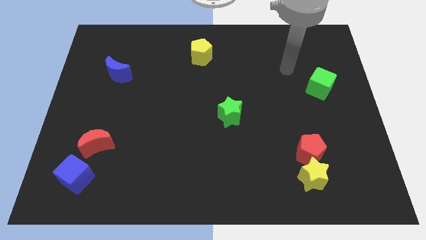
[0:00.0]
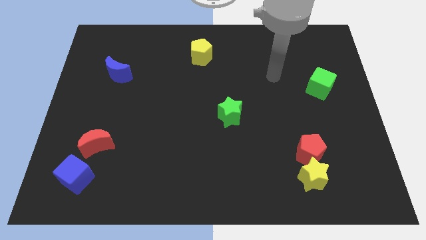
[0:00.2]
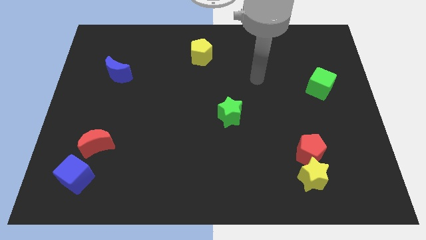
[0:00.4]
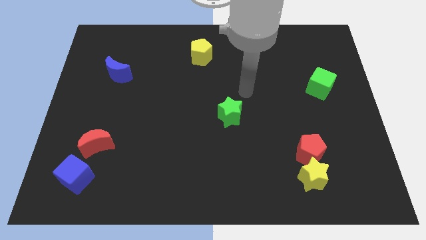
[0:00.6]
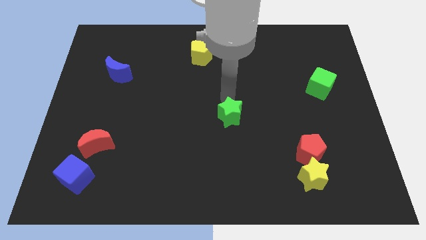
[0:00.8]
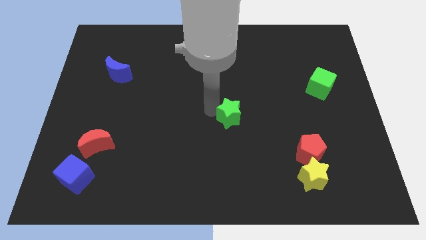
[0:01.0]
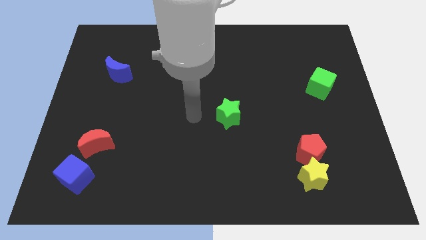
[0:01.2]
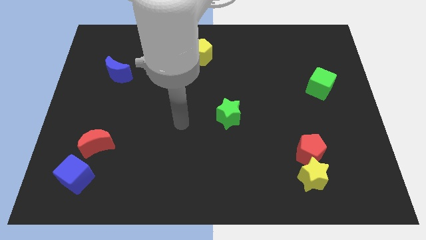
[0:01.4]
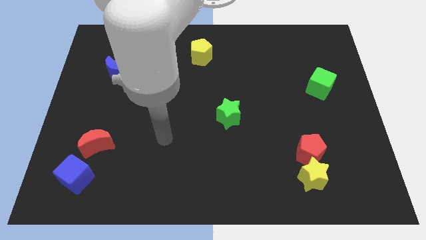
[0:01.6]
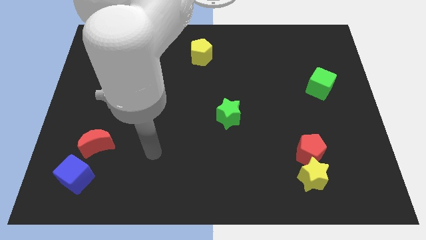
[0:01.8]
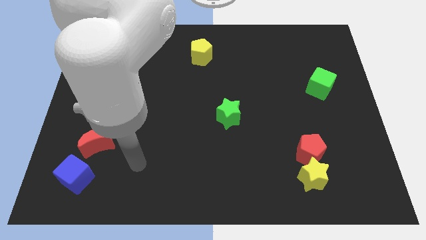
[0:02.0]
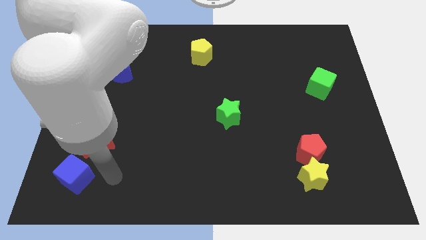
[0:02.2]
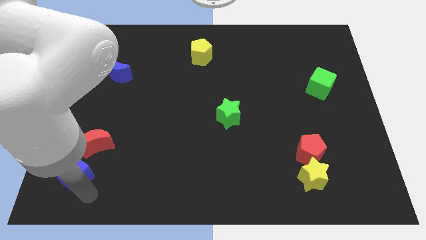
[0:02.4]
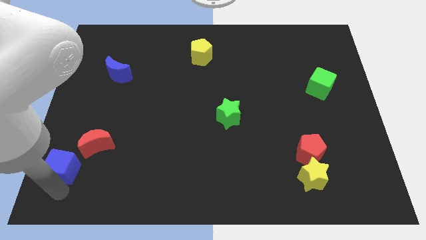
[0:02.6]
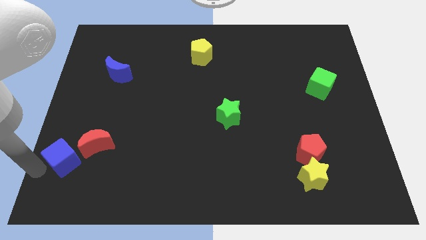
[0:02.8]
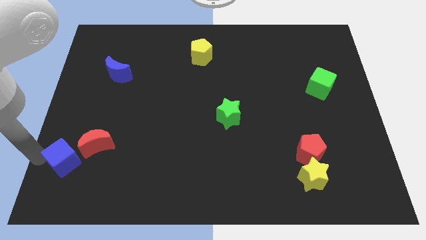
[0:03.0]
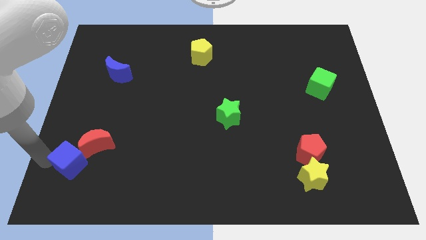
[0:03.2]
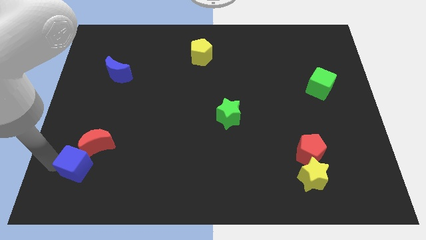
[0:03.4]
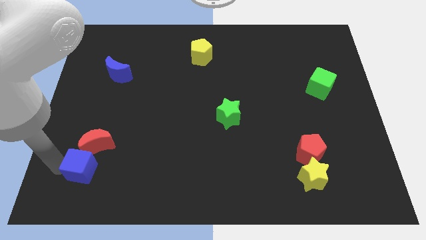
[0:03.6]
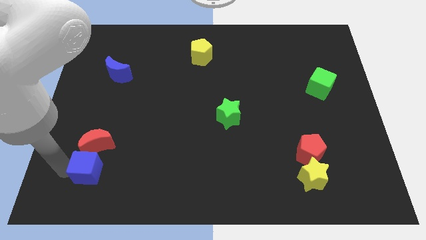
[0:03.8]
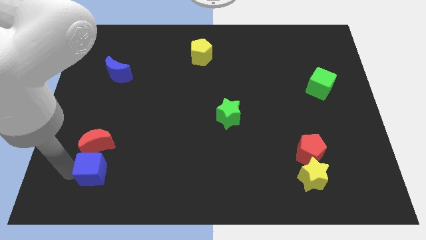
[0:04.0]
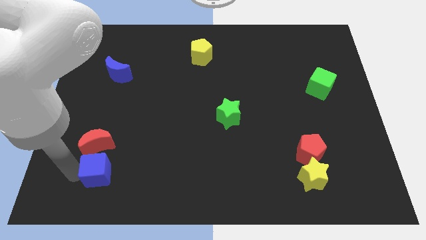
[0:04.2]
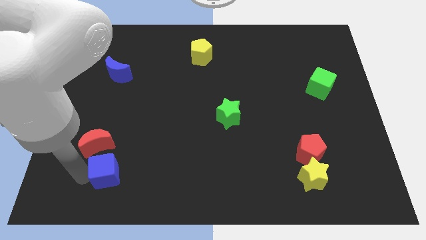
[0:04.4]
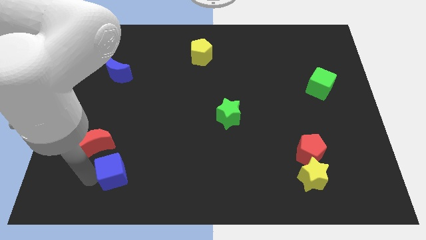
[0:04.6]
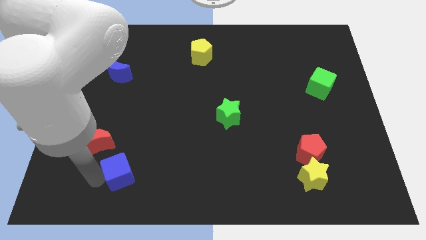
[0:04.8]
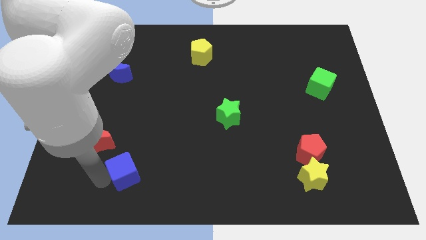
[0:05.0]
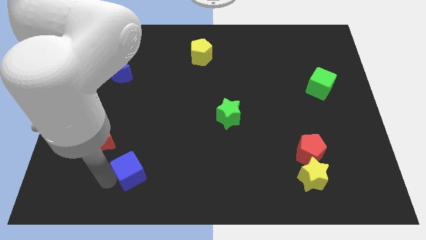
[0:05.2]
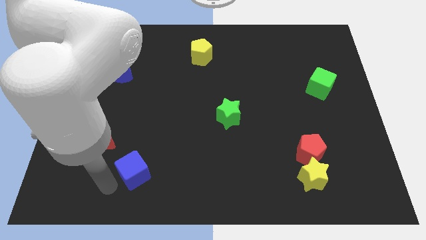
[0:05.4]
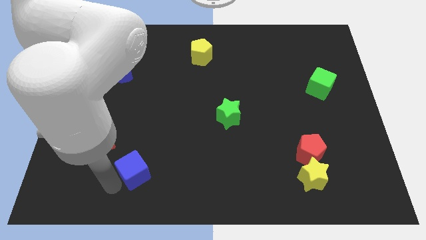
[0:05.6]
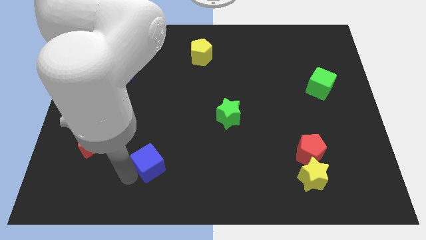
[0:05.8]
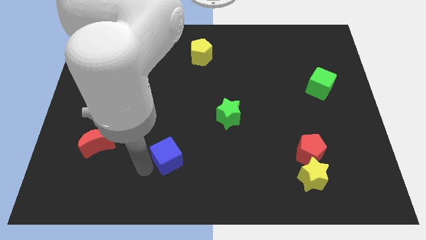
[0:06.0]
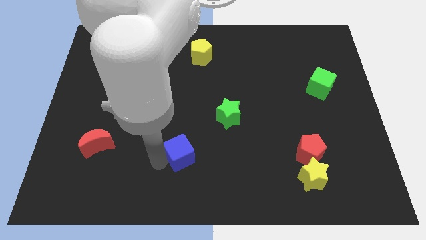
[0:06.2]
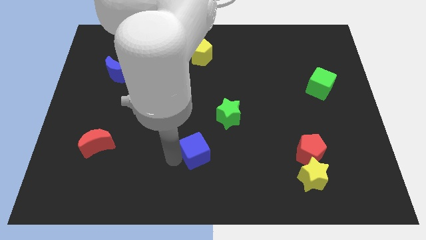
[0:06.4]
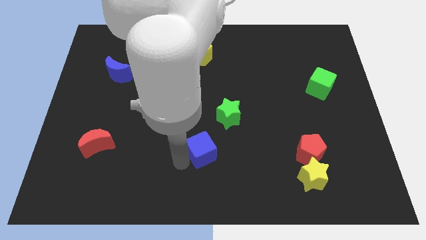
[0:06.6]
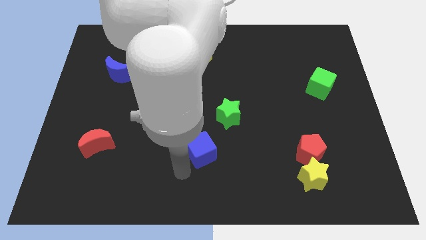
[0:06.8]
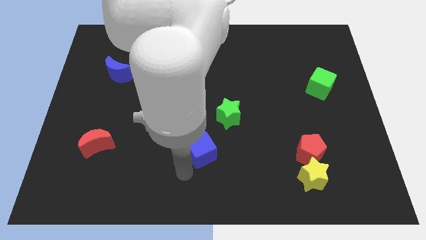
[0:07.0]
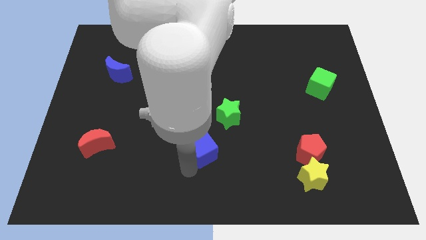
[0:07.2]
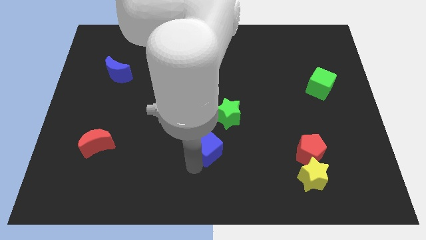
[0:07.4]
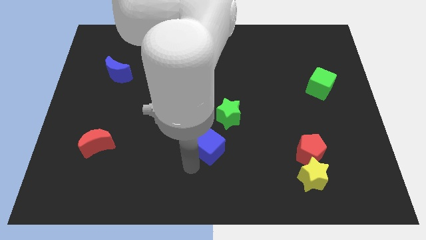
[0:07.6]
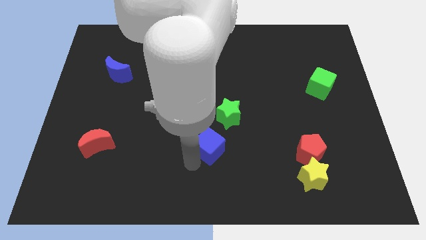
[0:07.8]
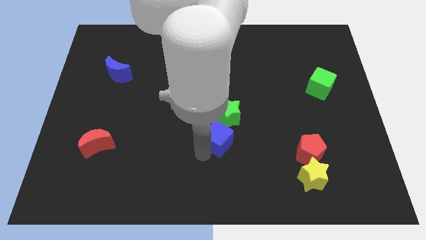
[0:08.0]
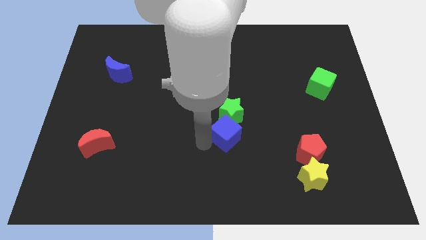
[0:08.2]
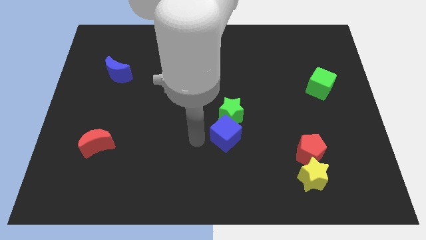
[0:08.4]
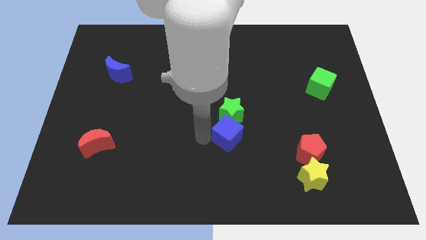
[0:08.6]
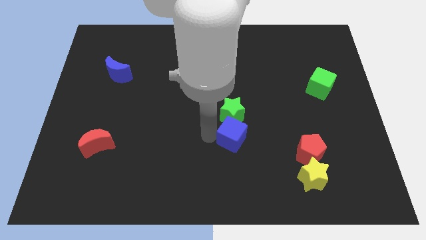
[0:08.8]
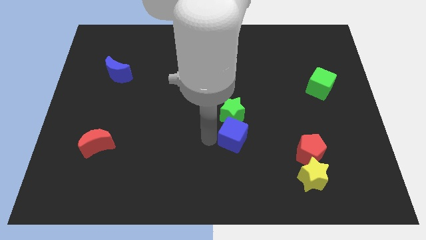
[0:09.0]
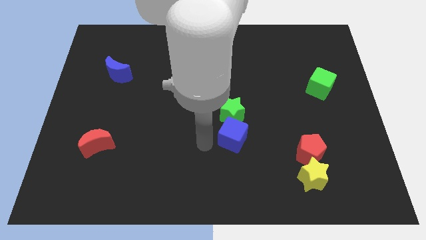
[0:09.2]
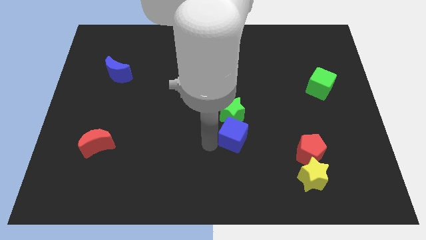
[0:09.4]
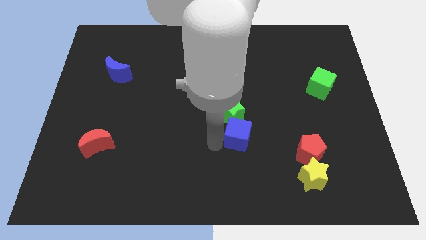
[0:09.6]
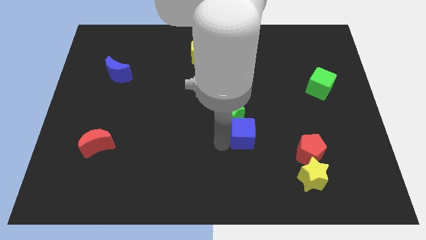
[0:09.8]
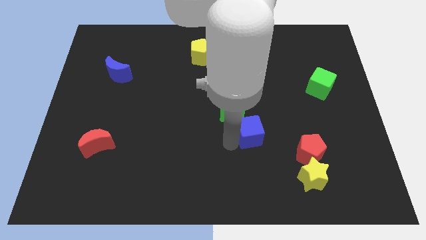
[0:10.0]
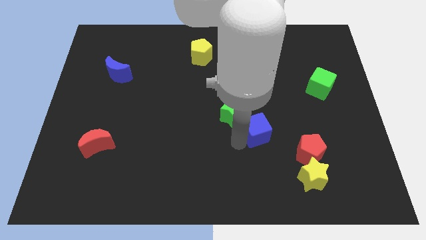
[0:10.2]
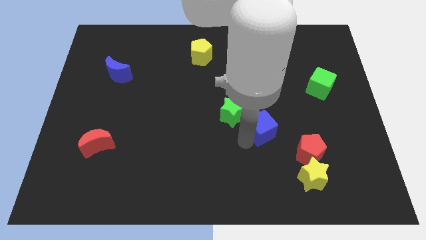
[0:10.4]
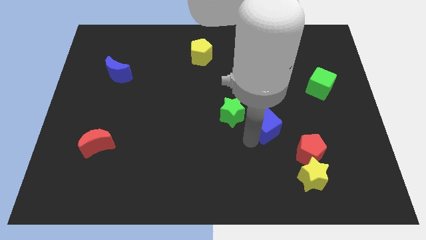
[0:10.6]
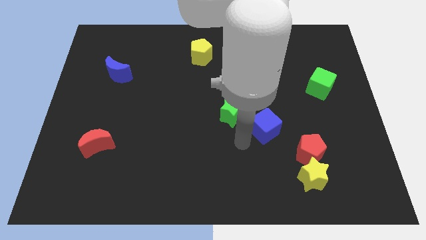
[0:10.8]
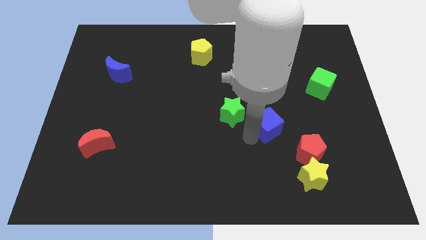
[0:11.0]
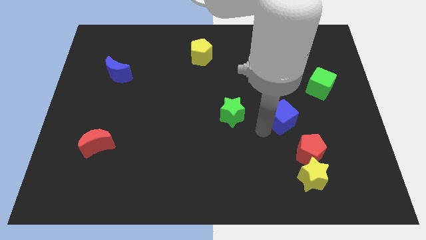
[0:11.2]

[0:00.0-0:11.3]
move the blue cube above the red pentagon

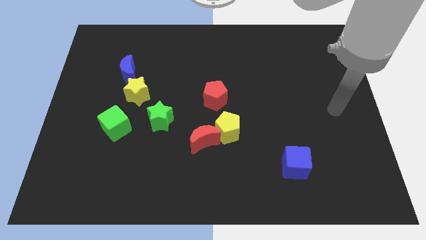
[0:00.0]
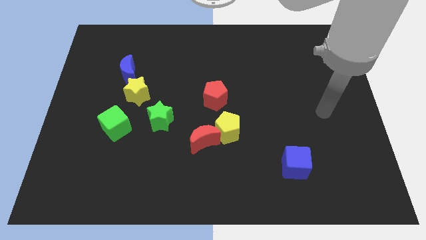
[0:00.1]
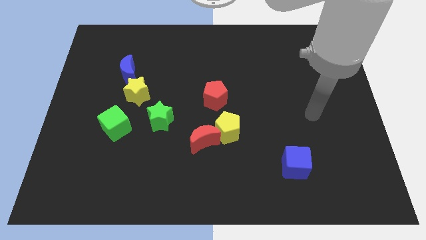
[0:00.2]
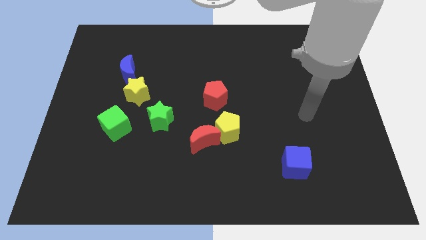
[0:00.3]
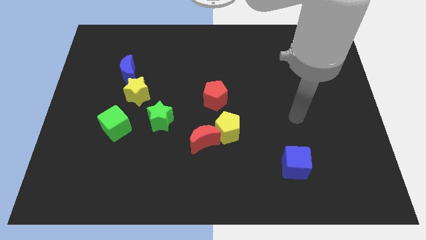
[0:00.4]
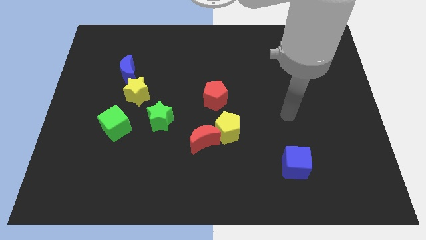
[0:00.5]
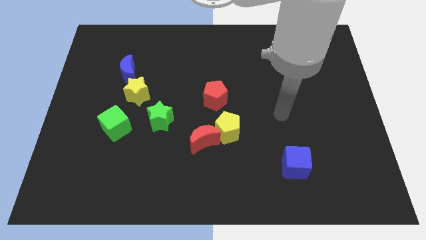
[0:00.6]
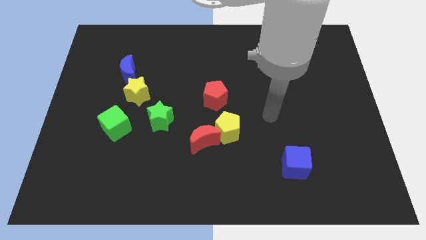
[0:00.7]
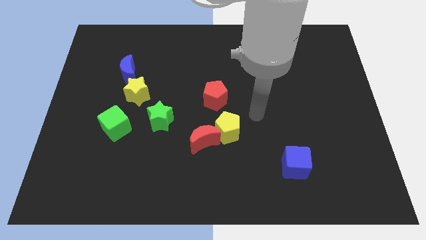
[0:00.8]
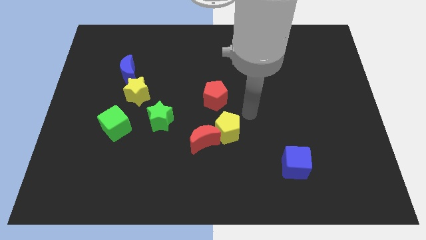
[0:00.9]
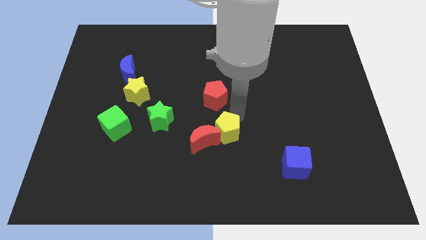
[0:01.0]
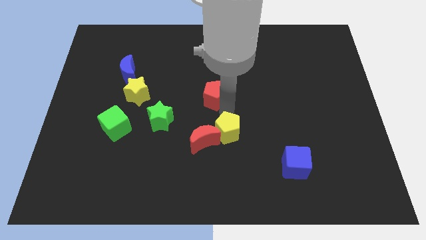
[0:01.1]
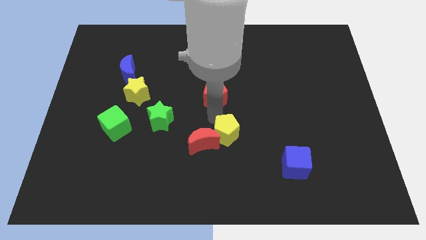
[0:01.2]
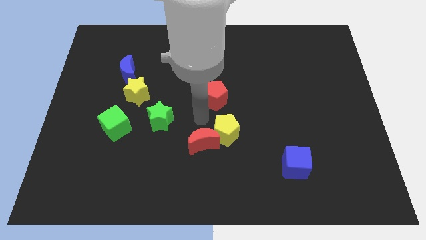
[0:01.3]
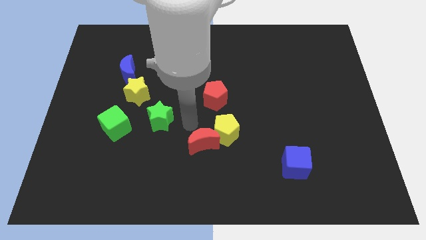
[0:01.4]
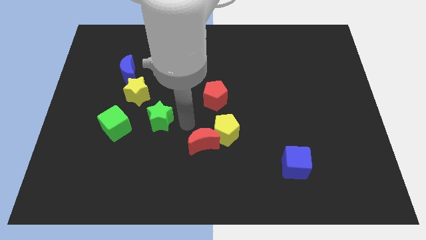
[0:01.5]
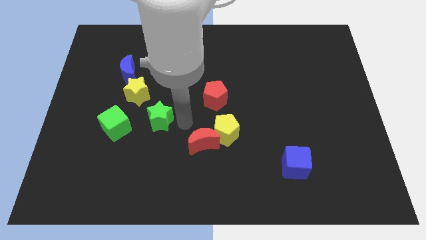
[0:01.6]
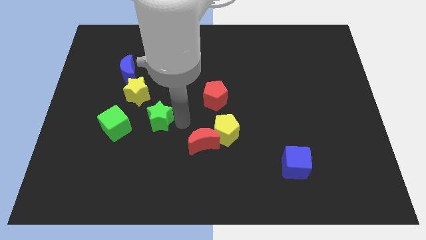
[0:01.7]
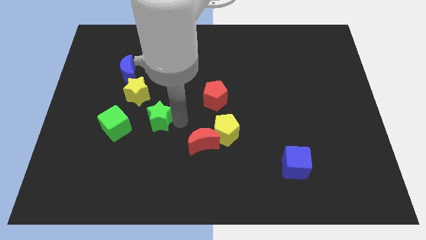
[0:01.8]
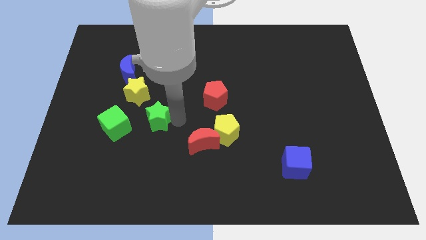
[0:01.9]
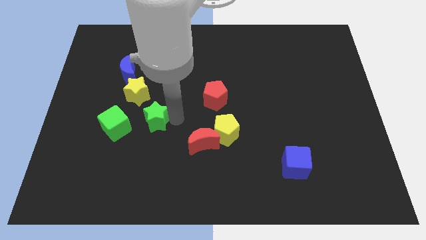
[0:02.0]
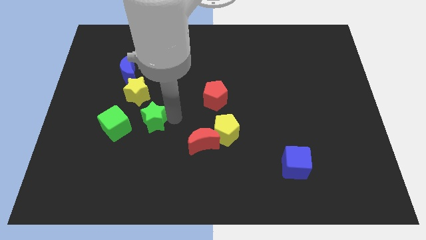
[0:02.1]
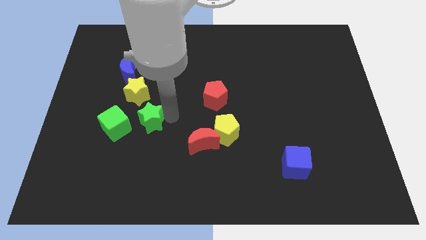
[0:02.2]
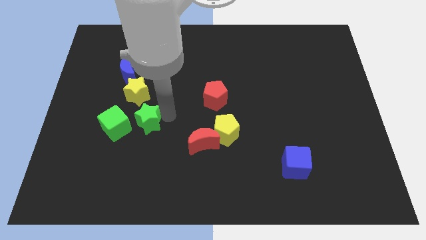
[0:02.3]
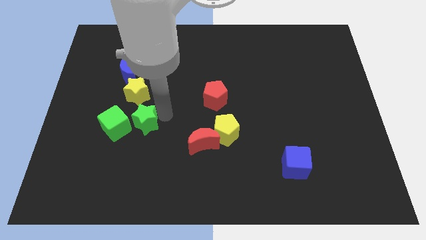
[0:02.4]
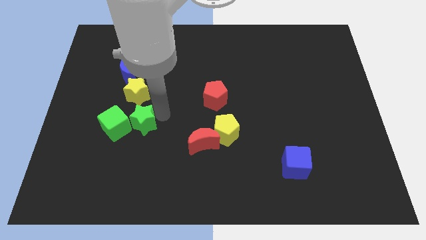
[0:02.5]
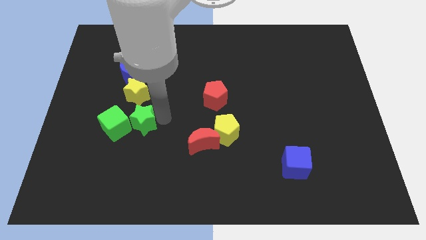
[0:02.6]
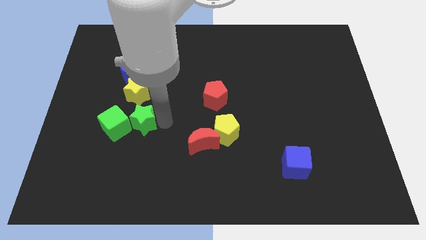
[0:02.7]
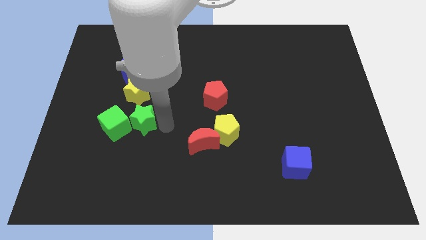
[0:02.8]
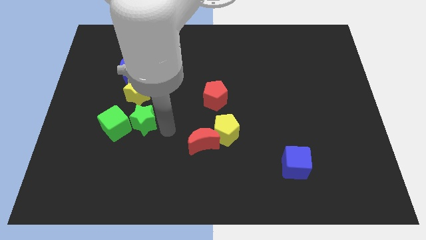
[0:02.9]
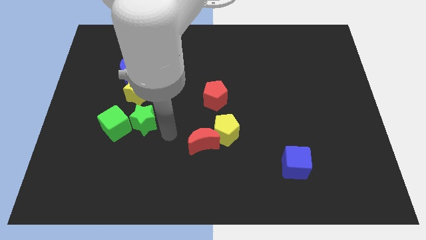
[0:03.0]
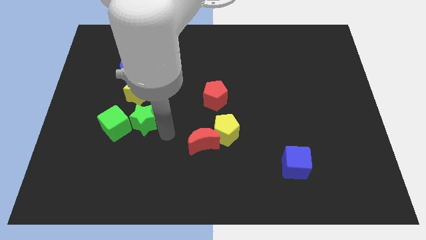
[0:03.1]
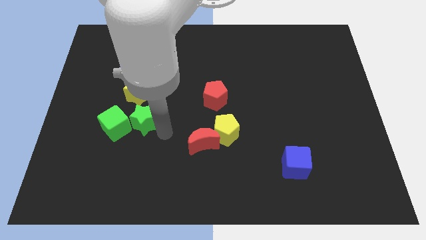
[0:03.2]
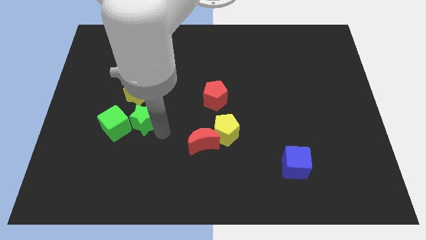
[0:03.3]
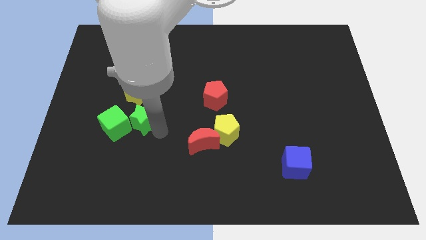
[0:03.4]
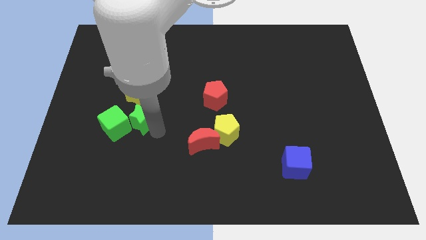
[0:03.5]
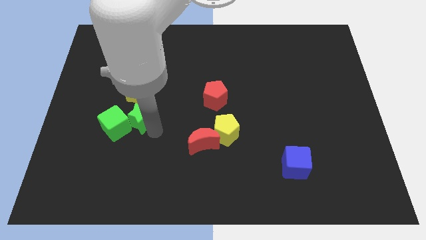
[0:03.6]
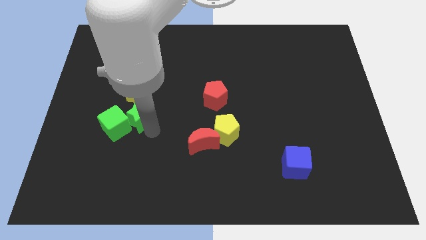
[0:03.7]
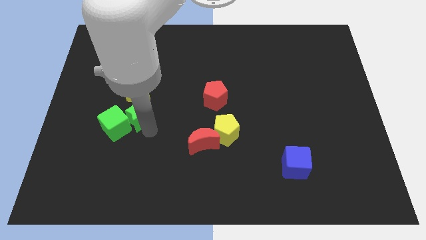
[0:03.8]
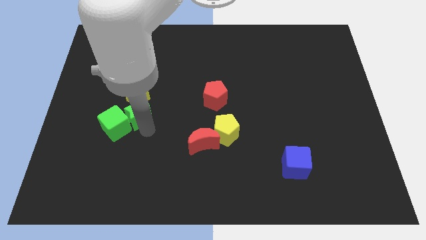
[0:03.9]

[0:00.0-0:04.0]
push the green star below the blue moon
